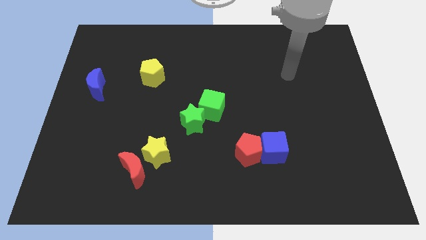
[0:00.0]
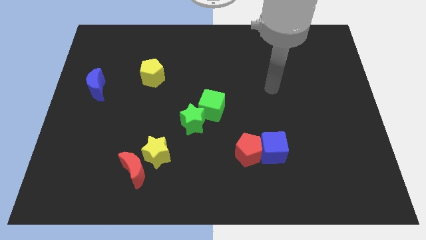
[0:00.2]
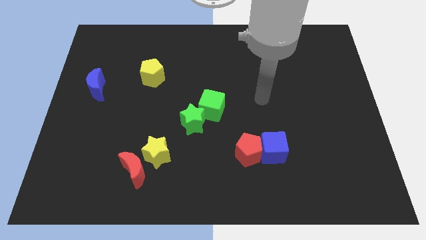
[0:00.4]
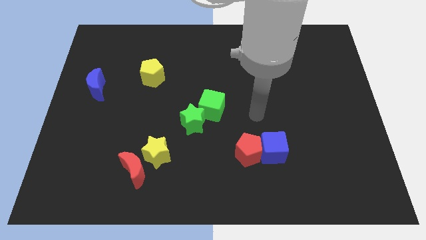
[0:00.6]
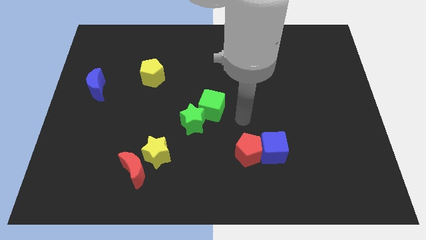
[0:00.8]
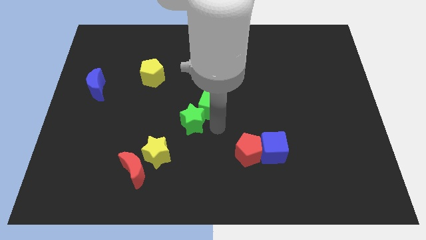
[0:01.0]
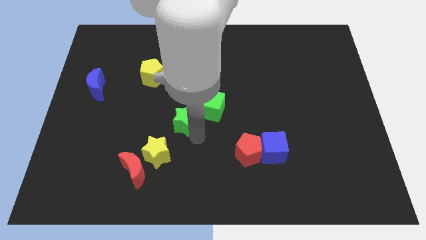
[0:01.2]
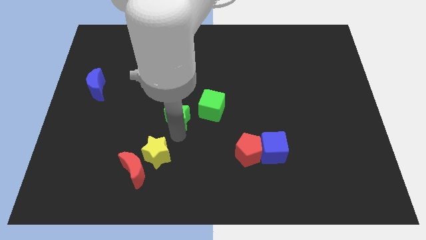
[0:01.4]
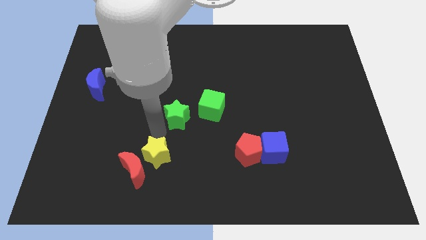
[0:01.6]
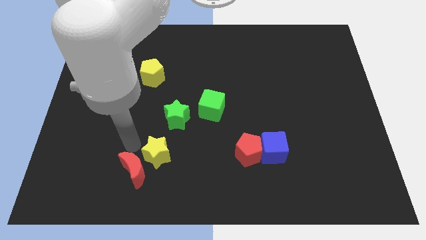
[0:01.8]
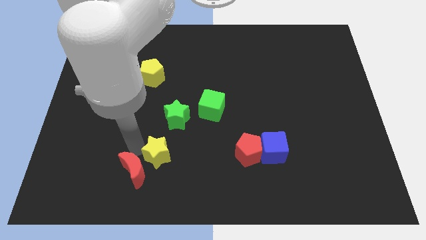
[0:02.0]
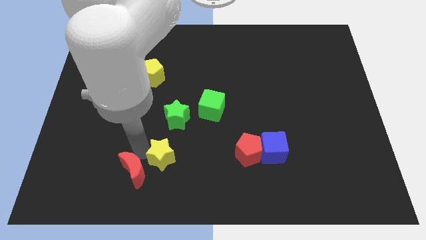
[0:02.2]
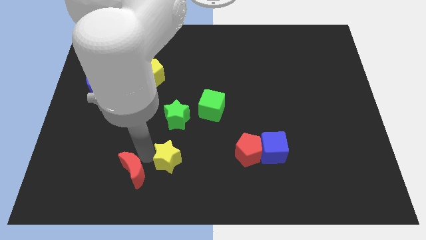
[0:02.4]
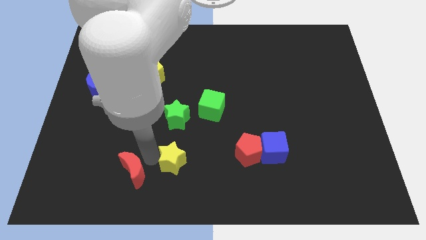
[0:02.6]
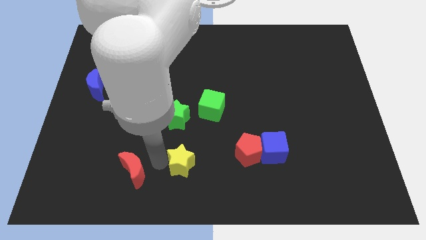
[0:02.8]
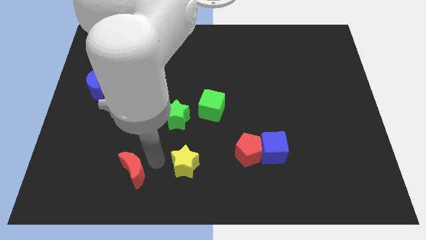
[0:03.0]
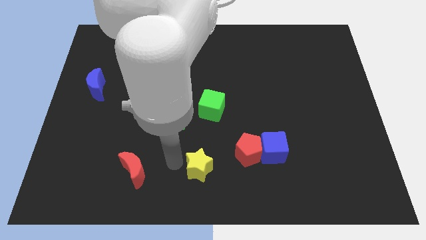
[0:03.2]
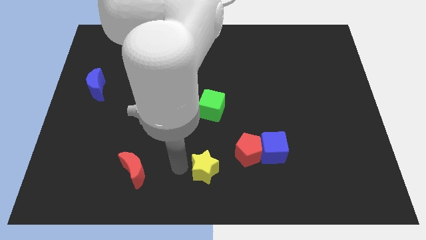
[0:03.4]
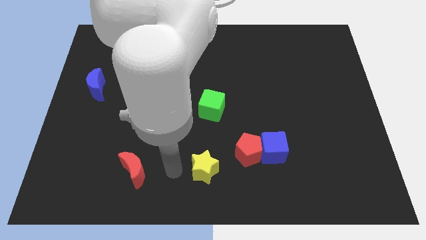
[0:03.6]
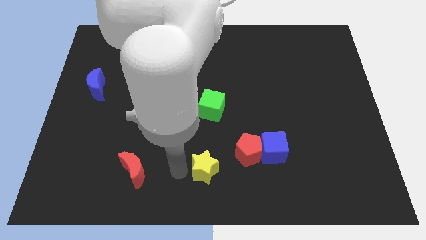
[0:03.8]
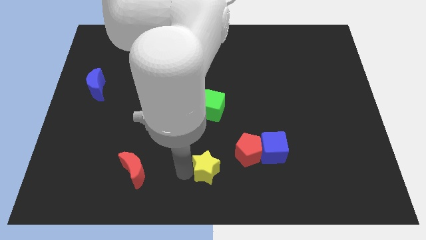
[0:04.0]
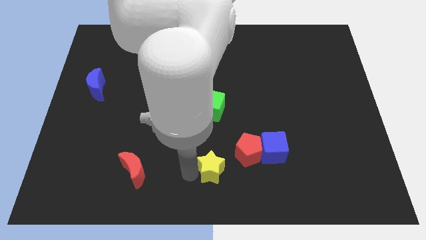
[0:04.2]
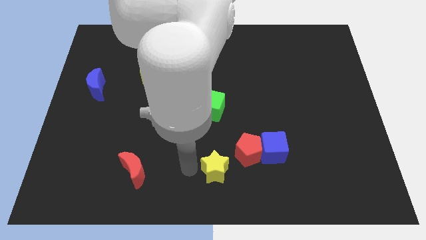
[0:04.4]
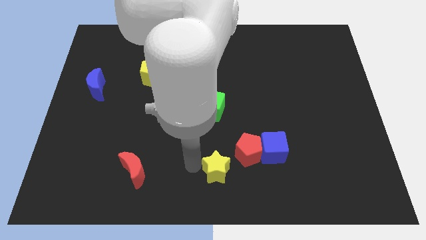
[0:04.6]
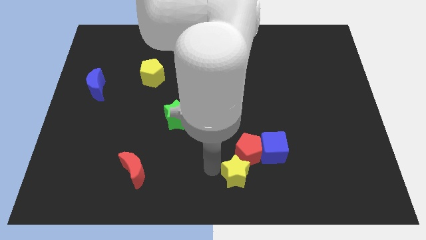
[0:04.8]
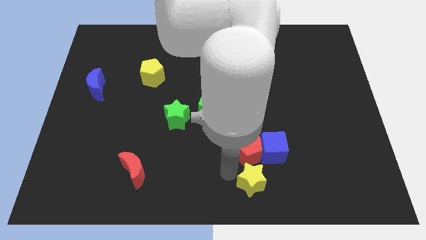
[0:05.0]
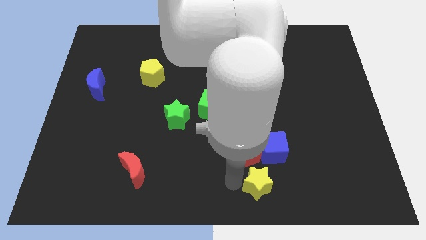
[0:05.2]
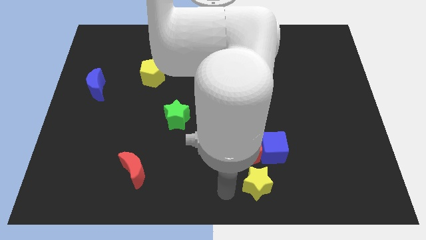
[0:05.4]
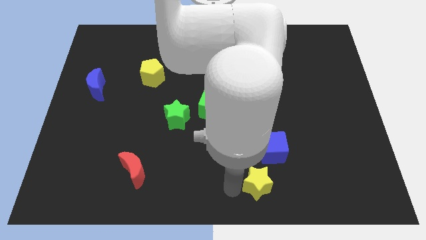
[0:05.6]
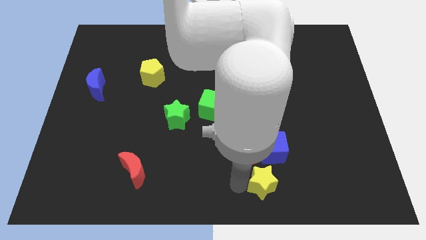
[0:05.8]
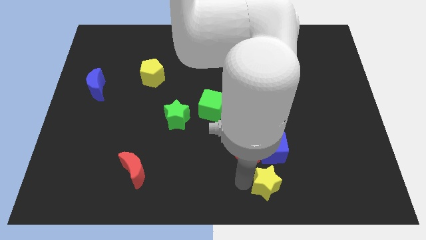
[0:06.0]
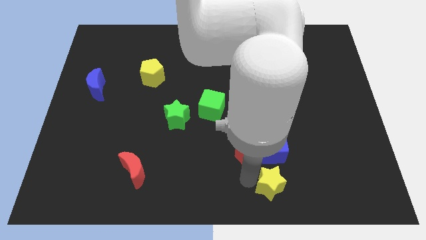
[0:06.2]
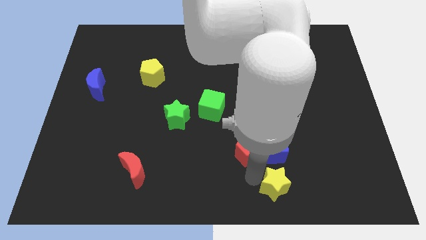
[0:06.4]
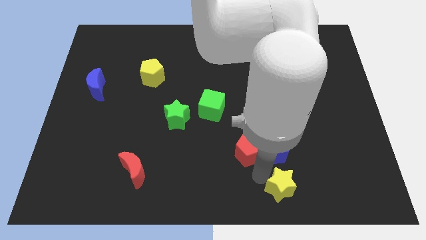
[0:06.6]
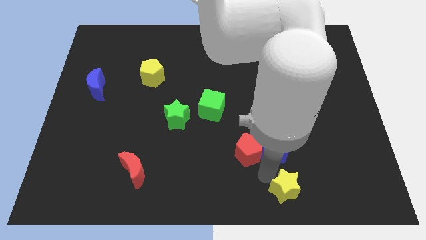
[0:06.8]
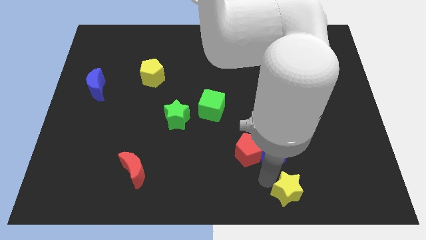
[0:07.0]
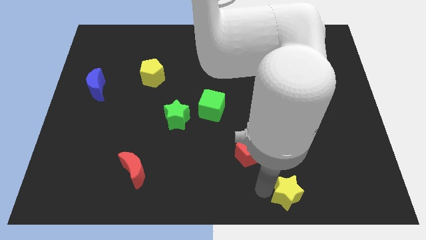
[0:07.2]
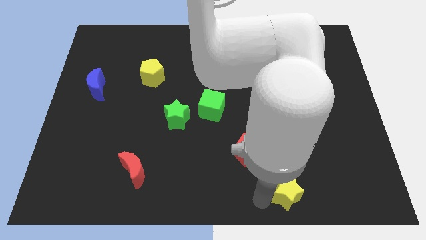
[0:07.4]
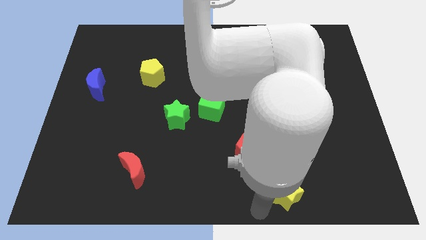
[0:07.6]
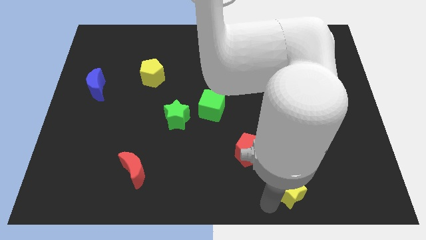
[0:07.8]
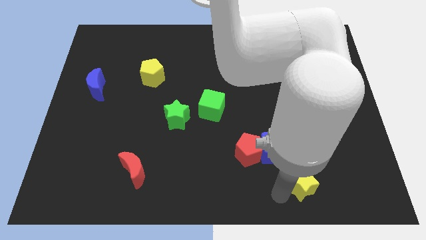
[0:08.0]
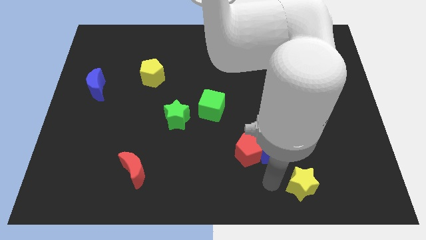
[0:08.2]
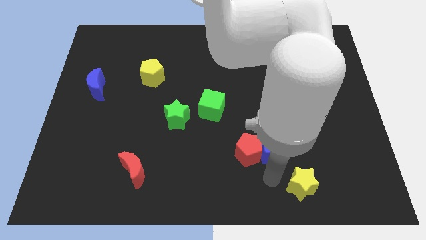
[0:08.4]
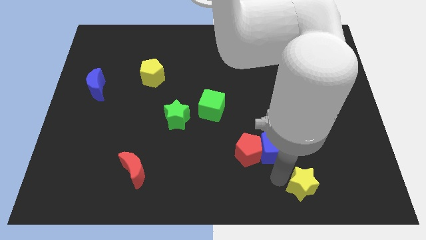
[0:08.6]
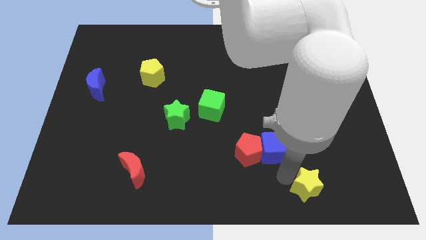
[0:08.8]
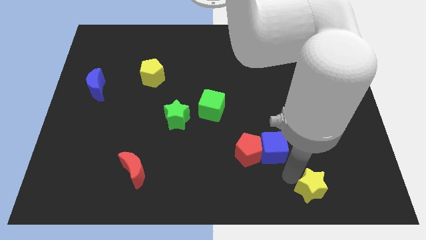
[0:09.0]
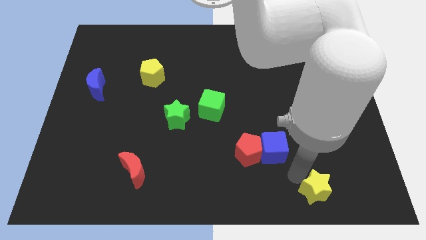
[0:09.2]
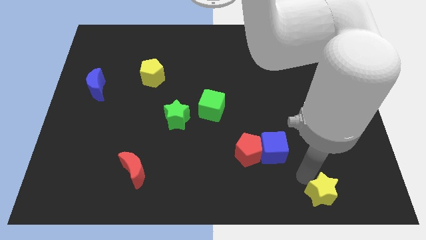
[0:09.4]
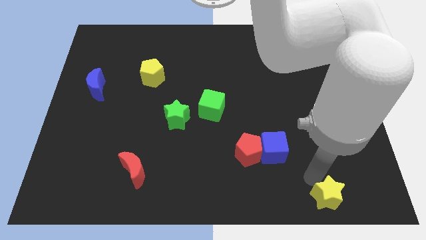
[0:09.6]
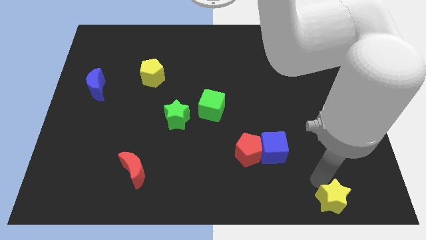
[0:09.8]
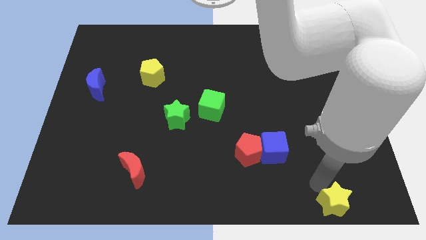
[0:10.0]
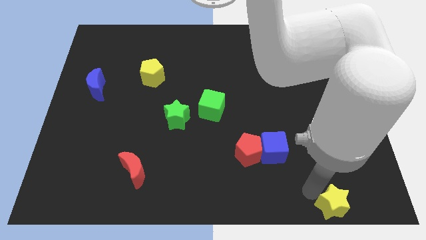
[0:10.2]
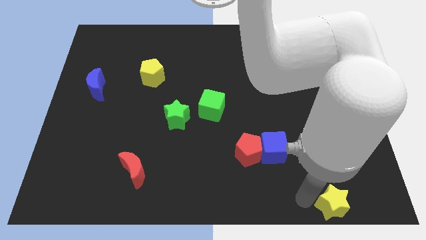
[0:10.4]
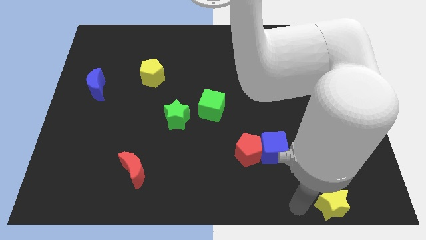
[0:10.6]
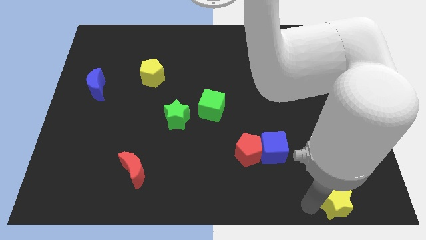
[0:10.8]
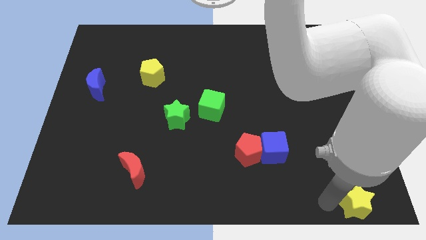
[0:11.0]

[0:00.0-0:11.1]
move the yellow star to the lower right corner

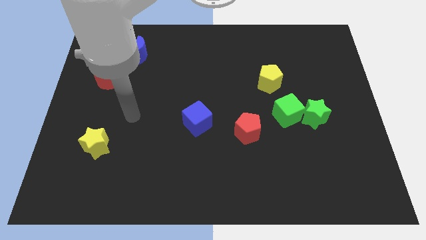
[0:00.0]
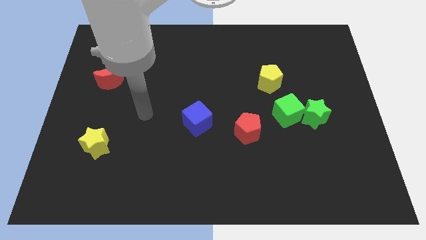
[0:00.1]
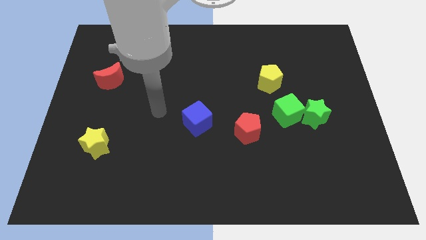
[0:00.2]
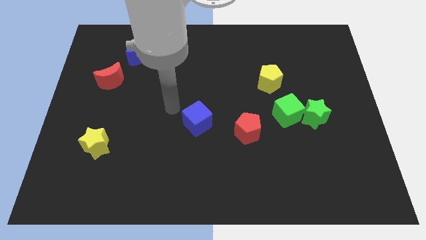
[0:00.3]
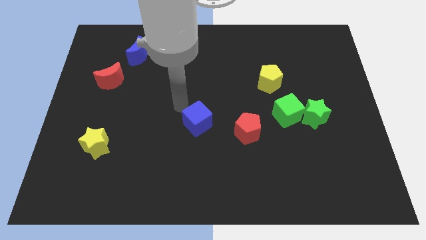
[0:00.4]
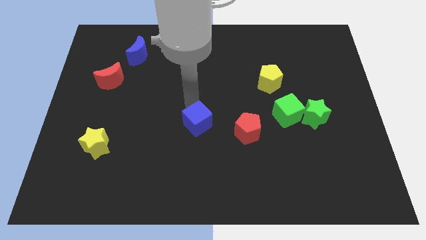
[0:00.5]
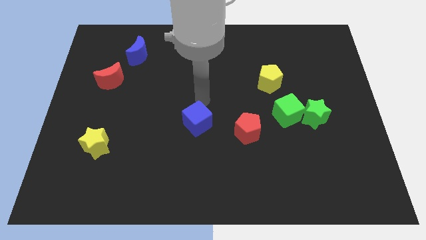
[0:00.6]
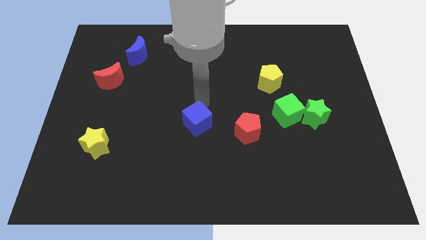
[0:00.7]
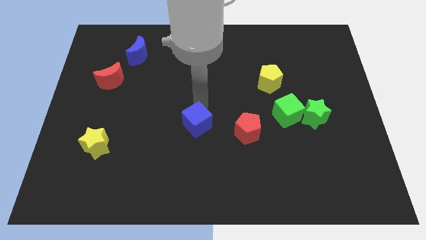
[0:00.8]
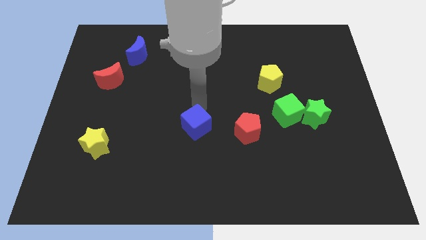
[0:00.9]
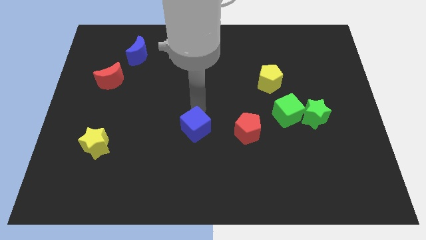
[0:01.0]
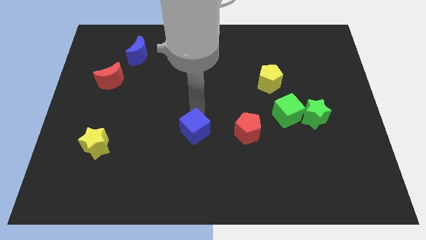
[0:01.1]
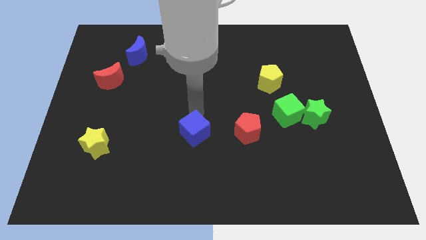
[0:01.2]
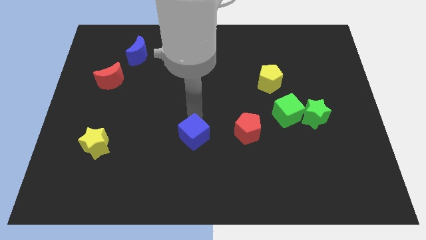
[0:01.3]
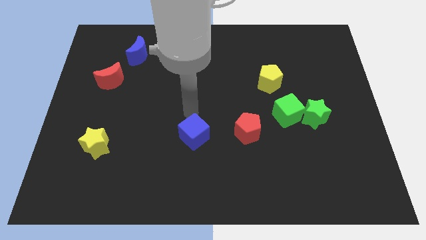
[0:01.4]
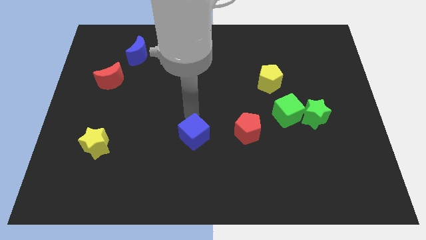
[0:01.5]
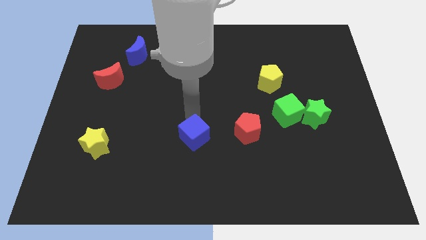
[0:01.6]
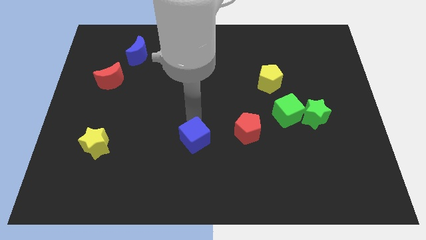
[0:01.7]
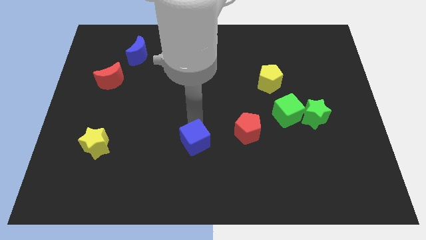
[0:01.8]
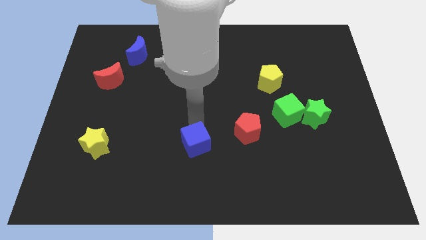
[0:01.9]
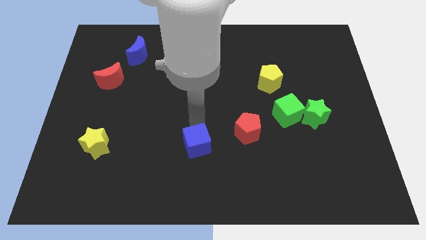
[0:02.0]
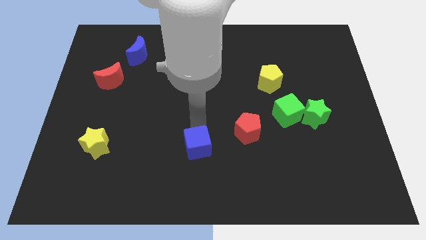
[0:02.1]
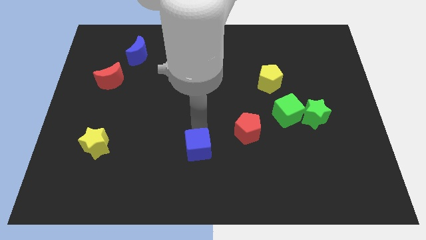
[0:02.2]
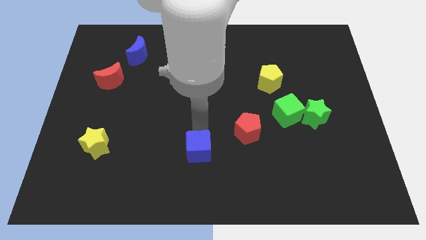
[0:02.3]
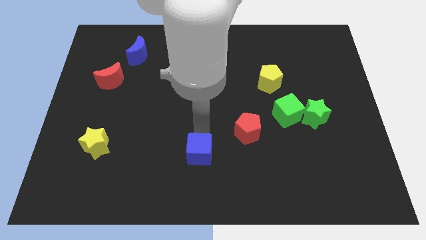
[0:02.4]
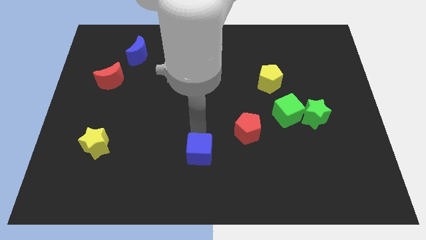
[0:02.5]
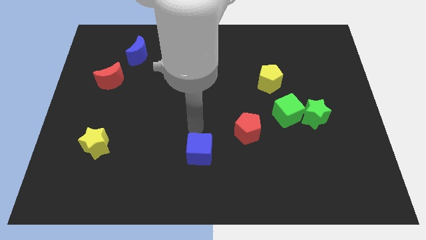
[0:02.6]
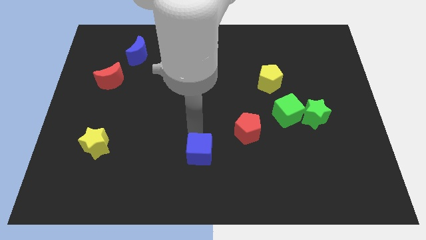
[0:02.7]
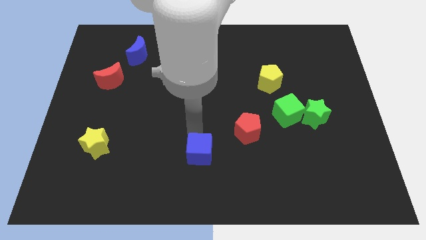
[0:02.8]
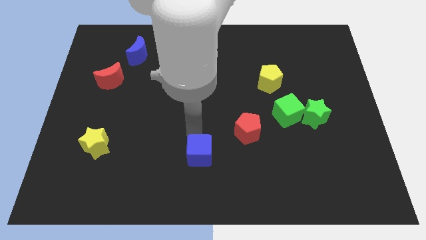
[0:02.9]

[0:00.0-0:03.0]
move the blue cube to the bottom
